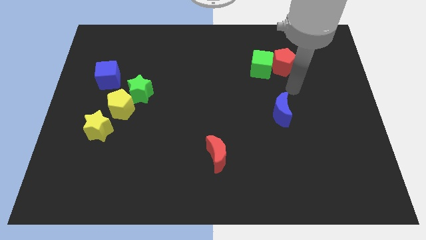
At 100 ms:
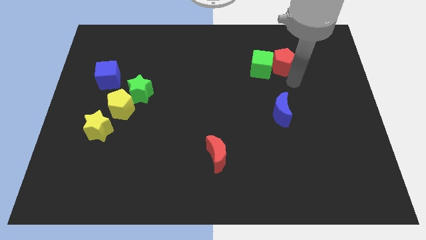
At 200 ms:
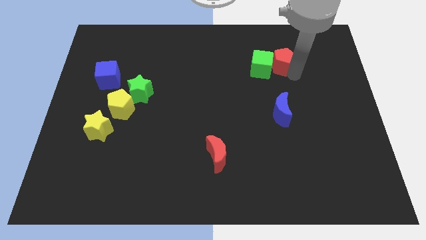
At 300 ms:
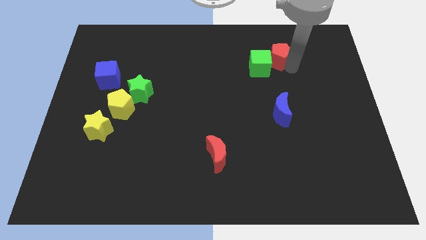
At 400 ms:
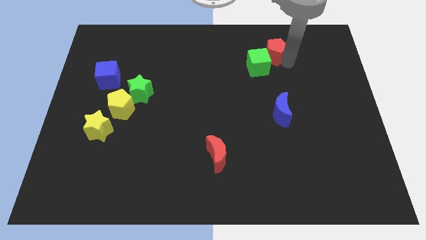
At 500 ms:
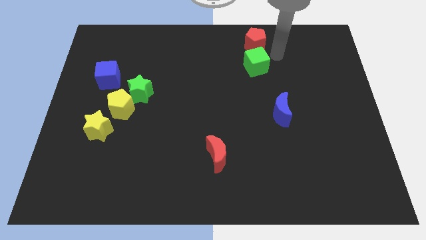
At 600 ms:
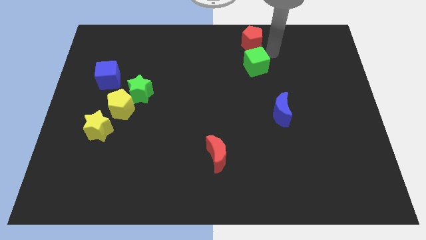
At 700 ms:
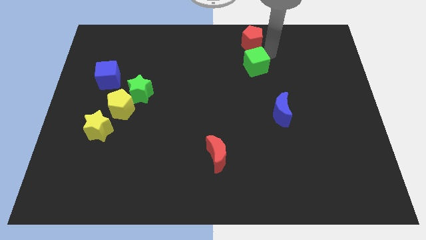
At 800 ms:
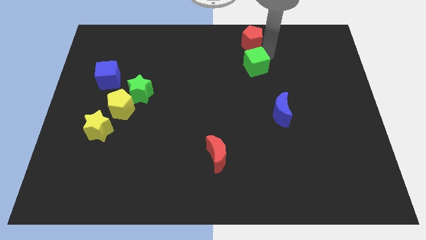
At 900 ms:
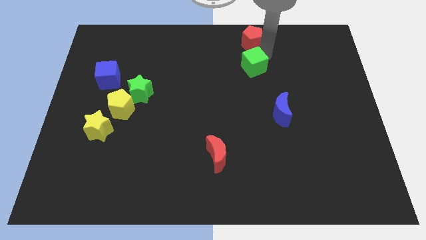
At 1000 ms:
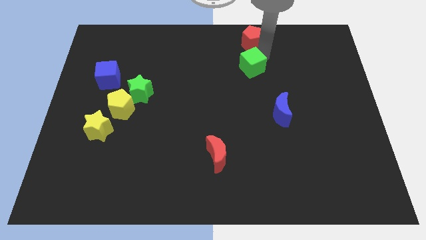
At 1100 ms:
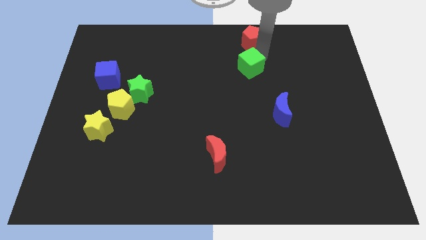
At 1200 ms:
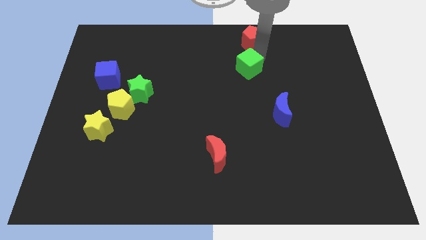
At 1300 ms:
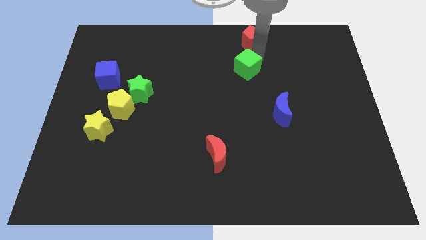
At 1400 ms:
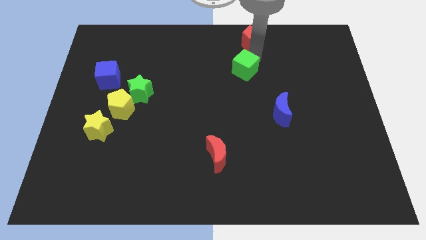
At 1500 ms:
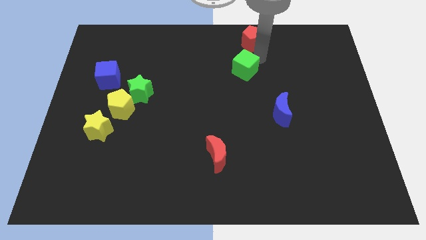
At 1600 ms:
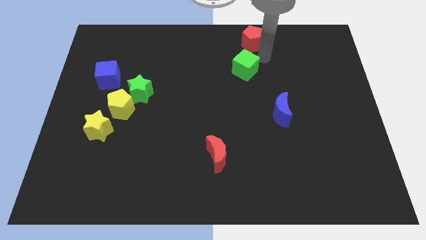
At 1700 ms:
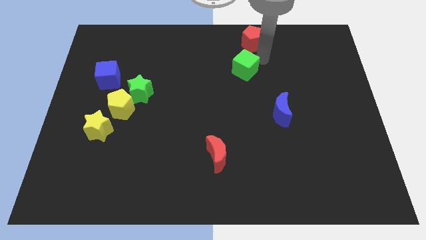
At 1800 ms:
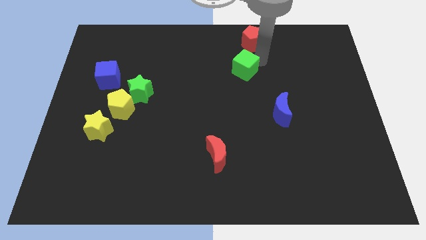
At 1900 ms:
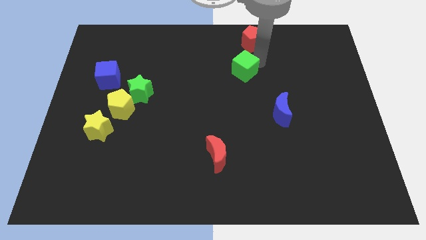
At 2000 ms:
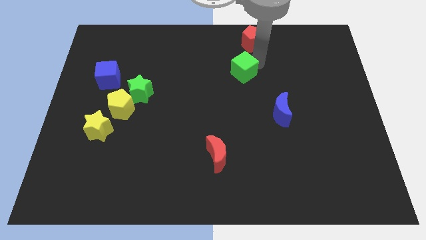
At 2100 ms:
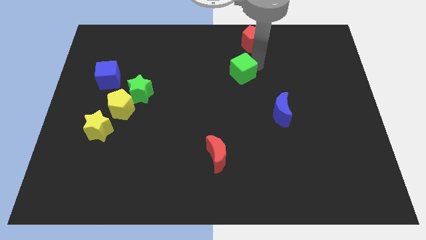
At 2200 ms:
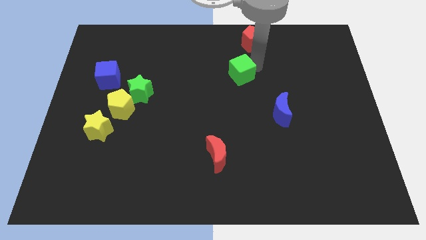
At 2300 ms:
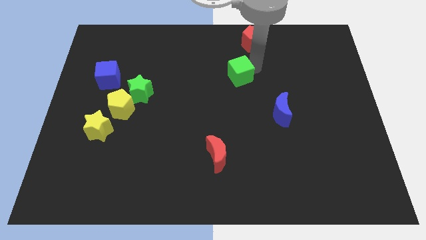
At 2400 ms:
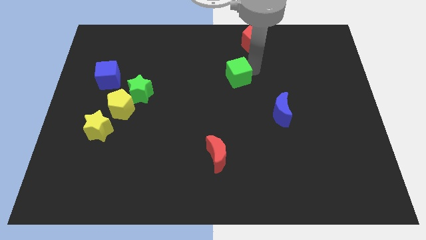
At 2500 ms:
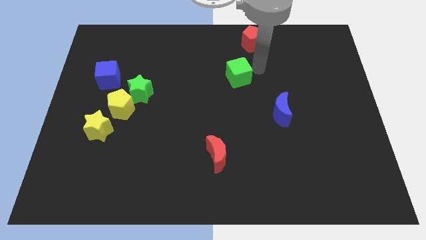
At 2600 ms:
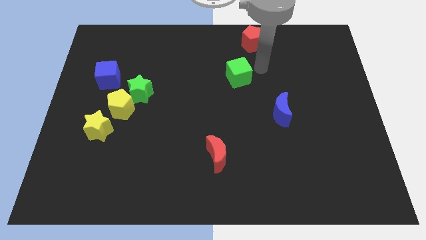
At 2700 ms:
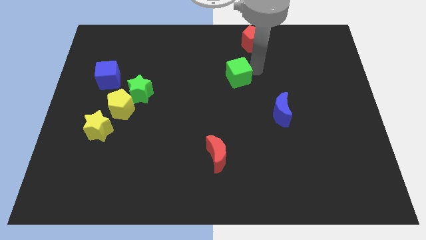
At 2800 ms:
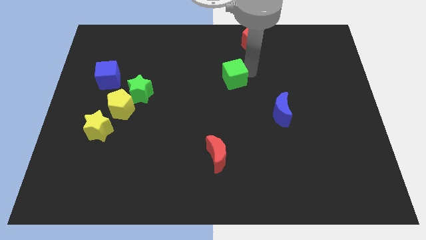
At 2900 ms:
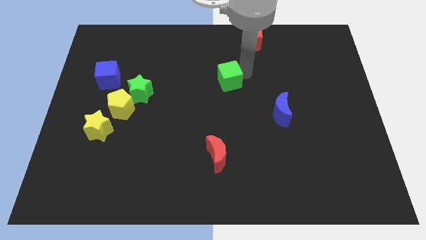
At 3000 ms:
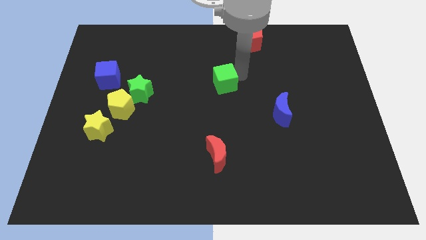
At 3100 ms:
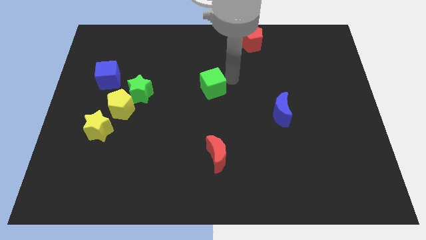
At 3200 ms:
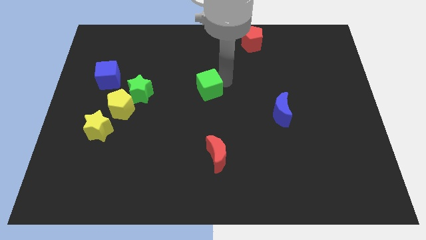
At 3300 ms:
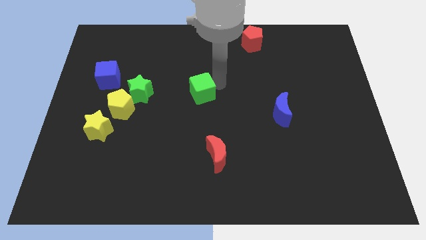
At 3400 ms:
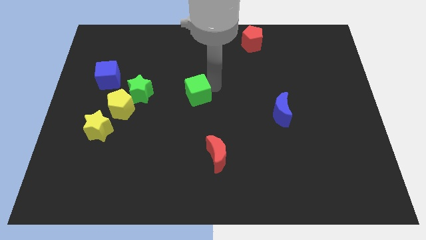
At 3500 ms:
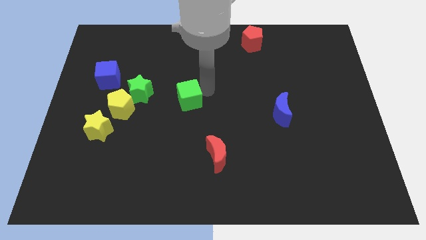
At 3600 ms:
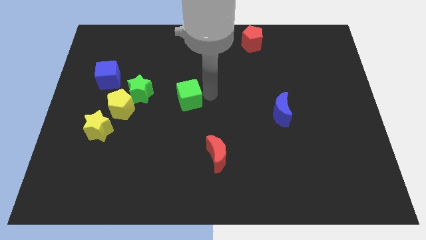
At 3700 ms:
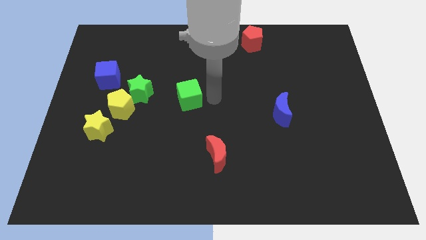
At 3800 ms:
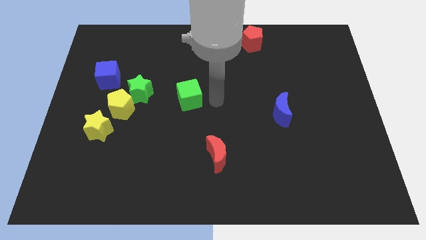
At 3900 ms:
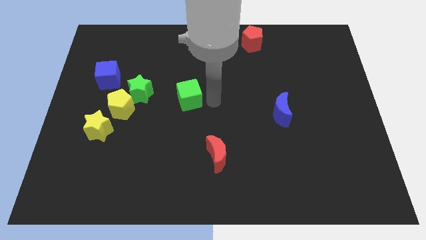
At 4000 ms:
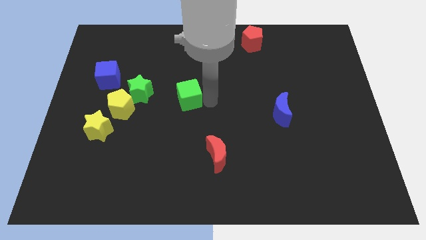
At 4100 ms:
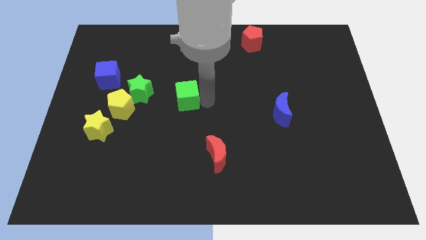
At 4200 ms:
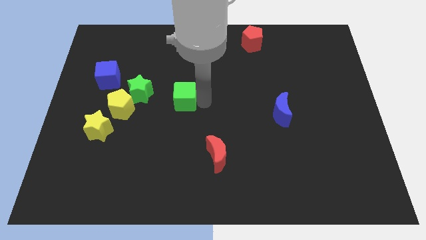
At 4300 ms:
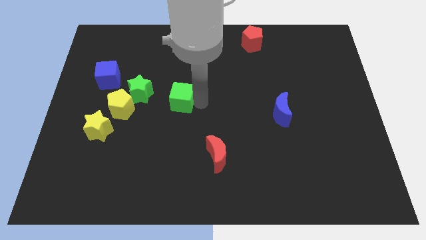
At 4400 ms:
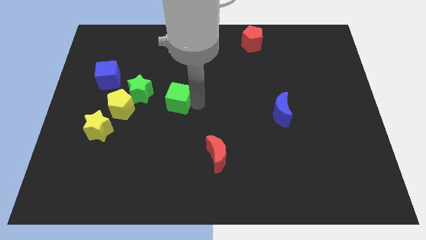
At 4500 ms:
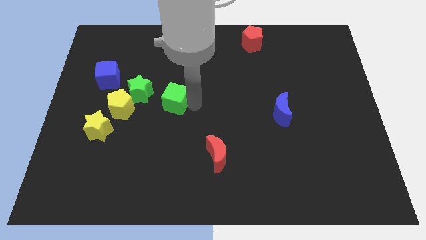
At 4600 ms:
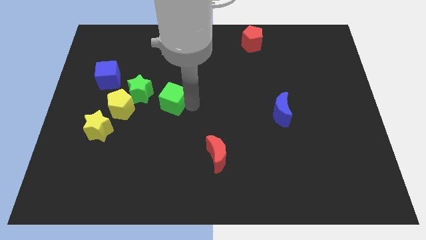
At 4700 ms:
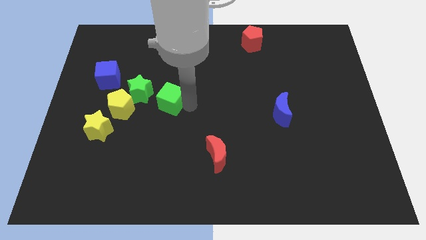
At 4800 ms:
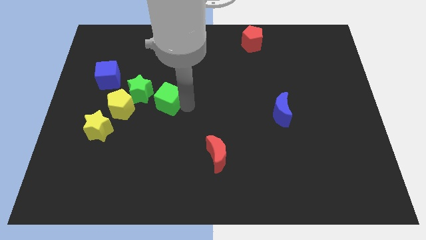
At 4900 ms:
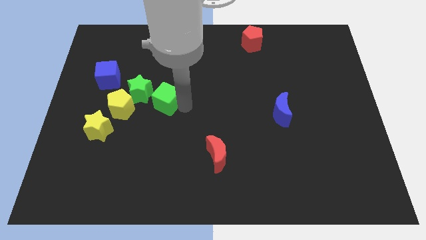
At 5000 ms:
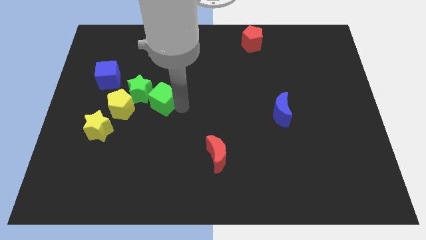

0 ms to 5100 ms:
put the green cube to the green star

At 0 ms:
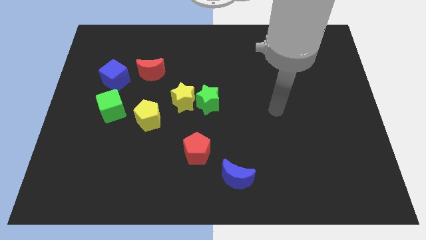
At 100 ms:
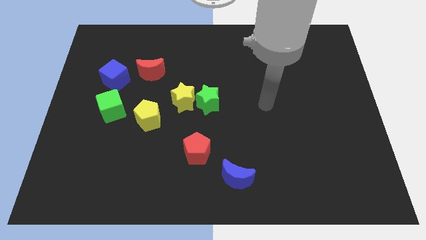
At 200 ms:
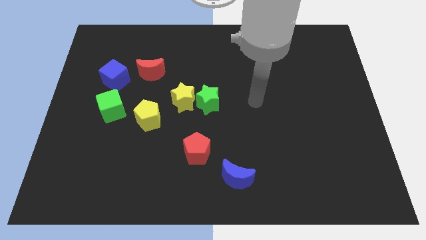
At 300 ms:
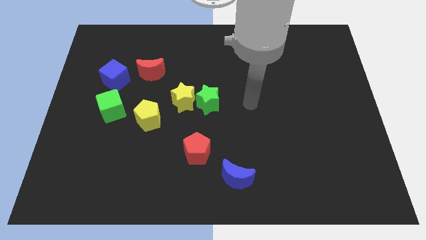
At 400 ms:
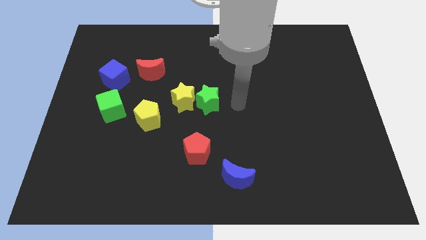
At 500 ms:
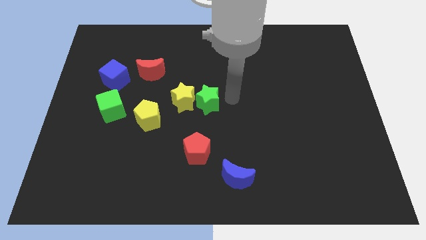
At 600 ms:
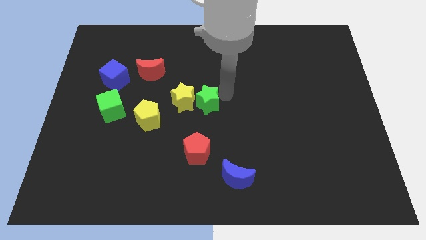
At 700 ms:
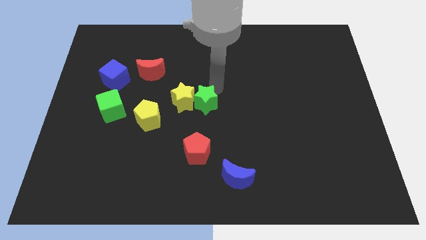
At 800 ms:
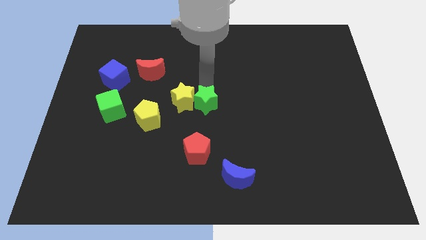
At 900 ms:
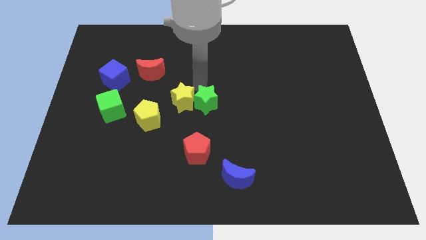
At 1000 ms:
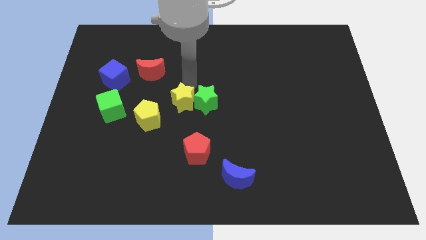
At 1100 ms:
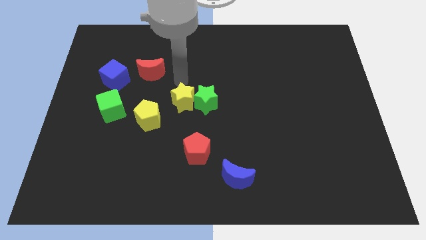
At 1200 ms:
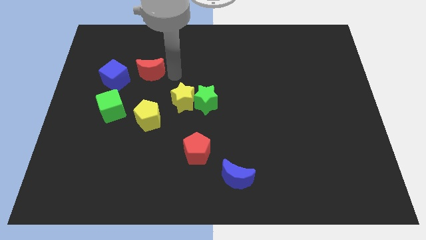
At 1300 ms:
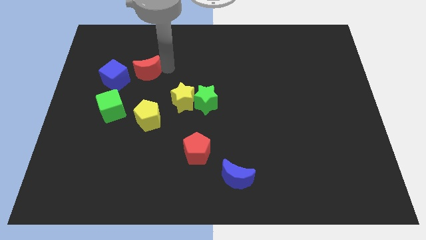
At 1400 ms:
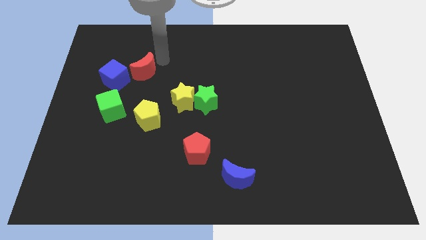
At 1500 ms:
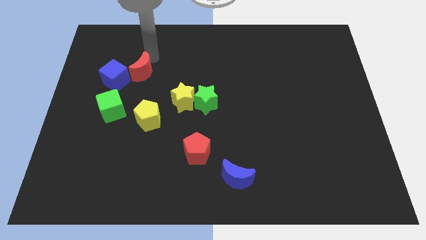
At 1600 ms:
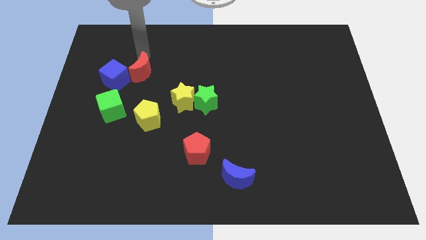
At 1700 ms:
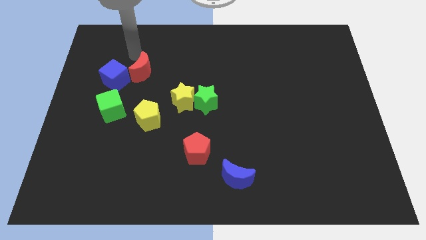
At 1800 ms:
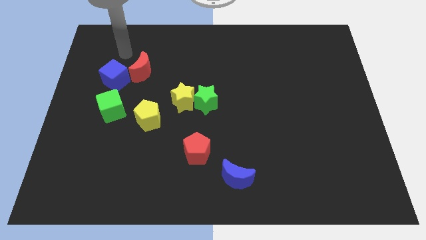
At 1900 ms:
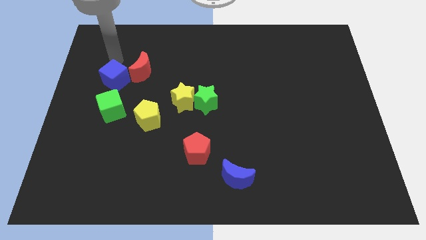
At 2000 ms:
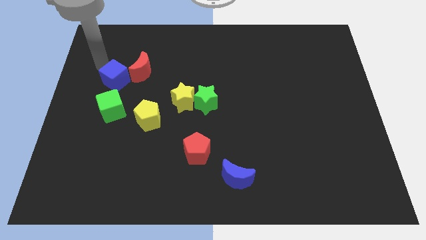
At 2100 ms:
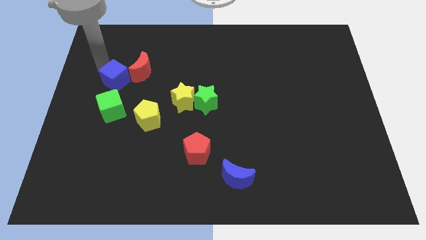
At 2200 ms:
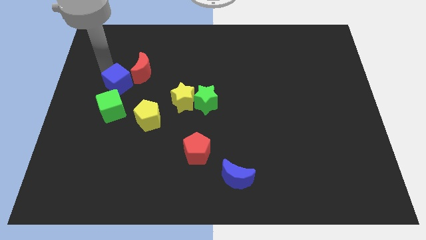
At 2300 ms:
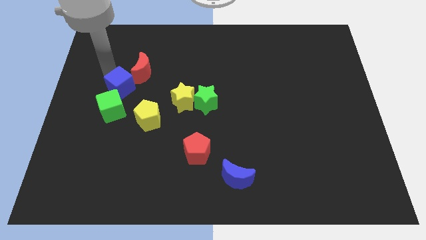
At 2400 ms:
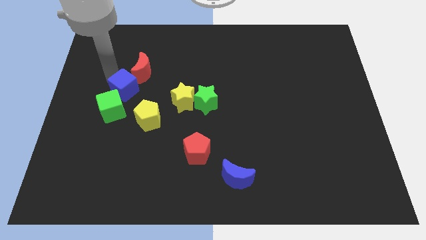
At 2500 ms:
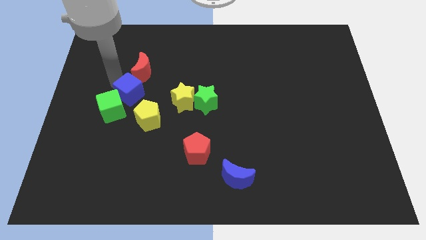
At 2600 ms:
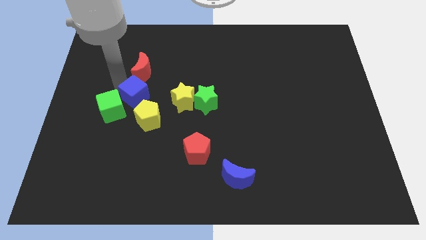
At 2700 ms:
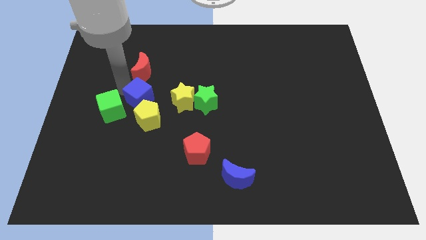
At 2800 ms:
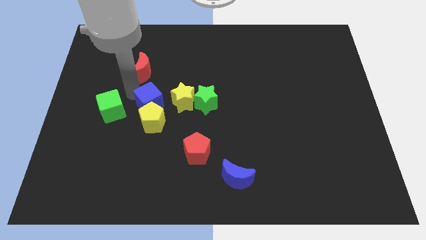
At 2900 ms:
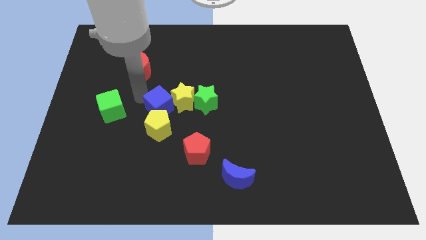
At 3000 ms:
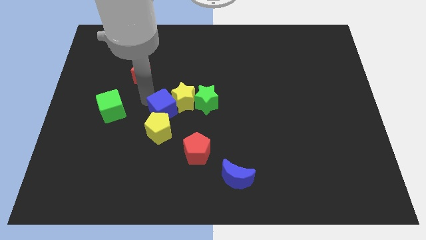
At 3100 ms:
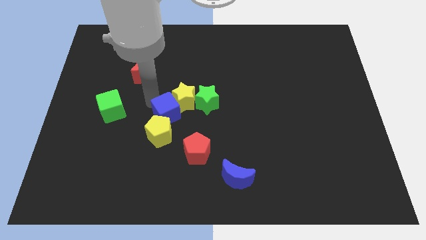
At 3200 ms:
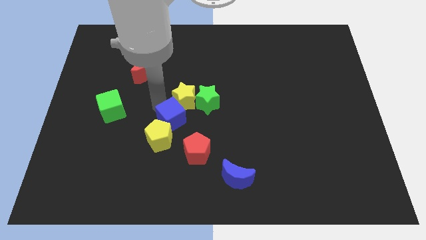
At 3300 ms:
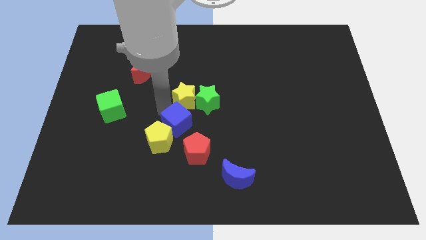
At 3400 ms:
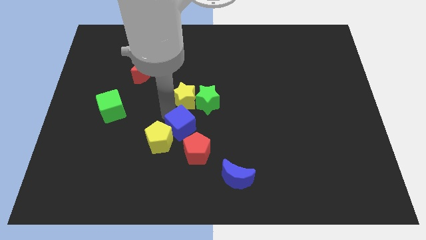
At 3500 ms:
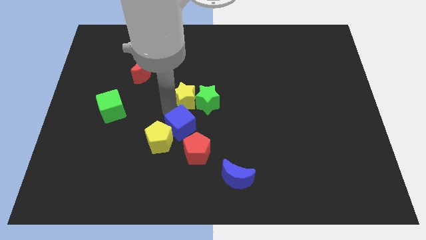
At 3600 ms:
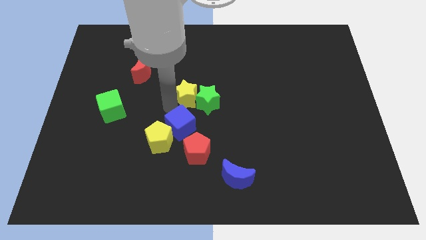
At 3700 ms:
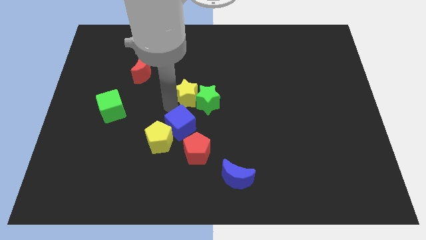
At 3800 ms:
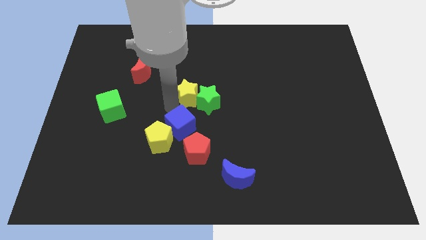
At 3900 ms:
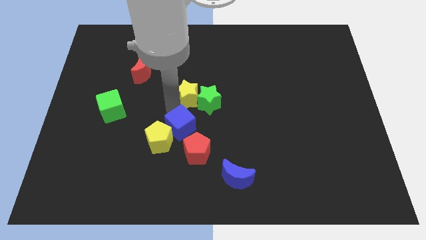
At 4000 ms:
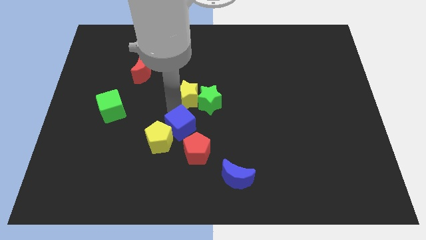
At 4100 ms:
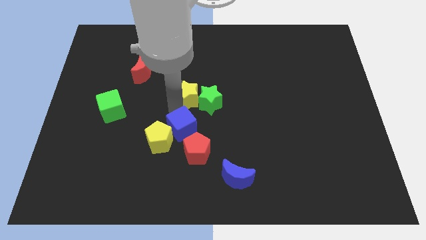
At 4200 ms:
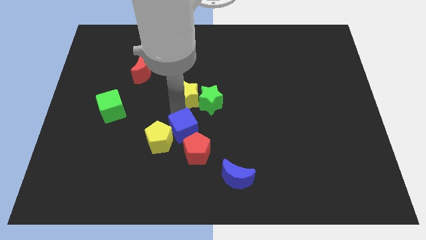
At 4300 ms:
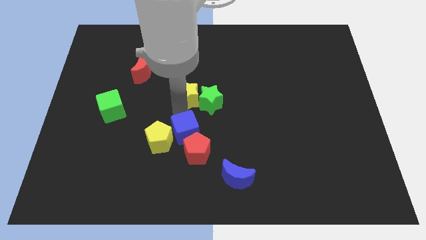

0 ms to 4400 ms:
push the blue cube towards the red pentagon
